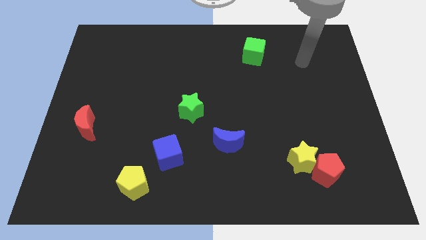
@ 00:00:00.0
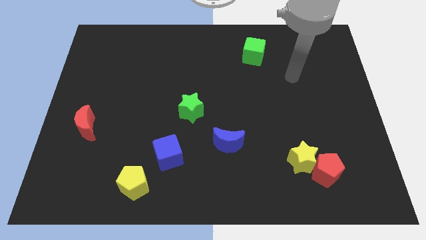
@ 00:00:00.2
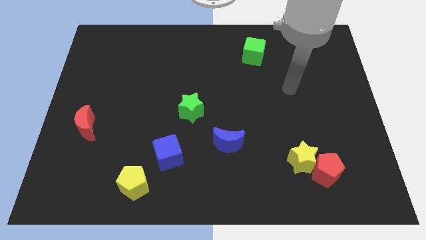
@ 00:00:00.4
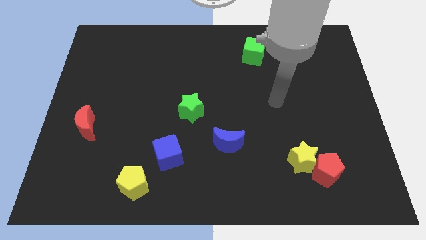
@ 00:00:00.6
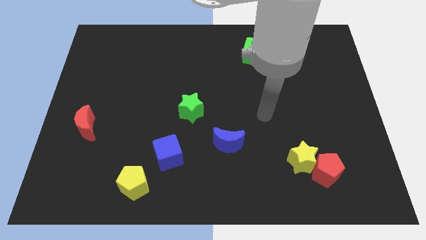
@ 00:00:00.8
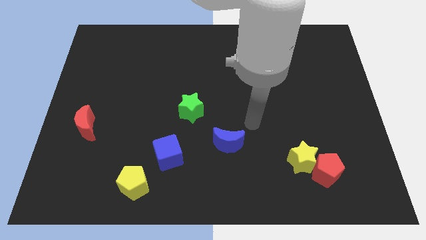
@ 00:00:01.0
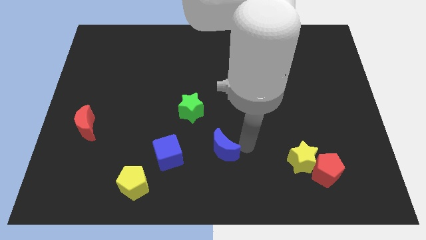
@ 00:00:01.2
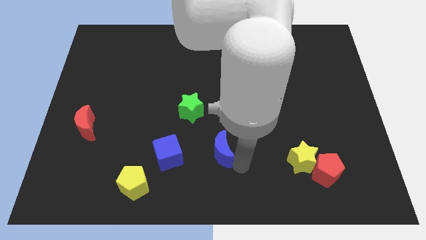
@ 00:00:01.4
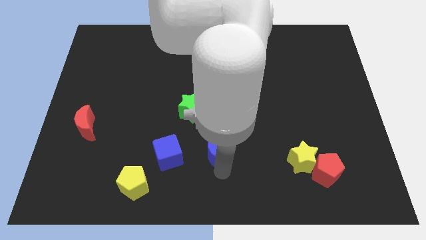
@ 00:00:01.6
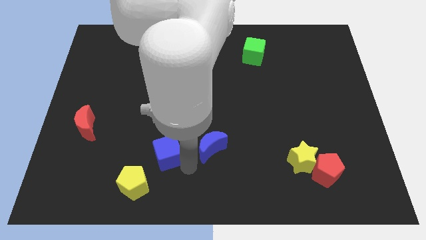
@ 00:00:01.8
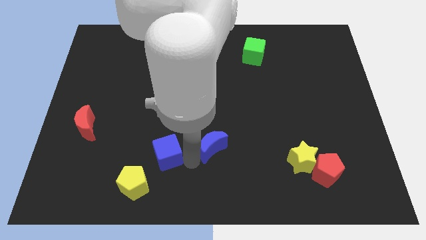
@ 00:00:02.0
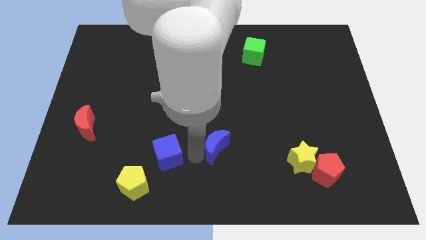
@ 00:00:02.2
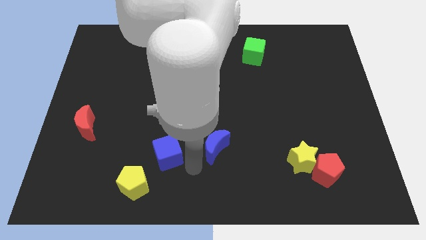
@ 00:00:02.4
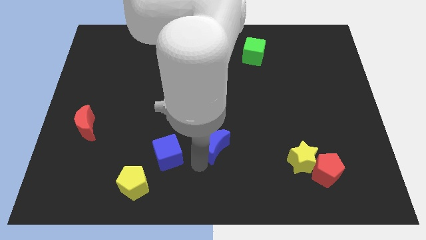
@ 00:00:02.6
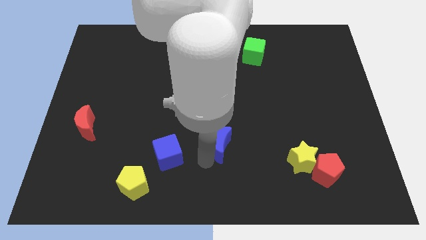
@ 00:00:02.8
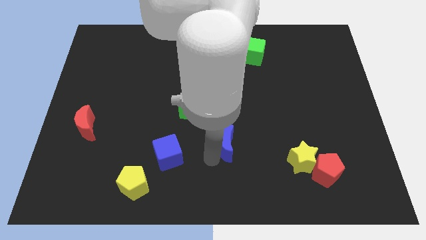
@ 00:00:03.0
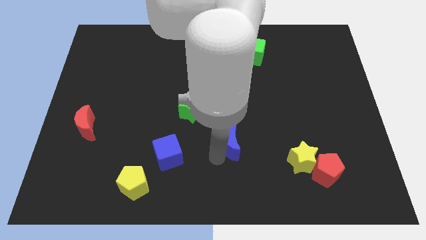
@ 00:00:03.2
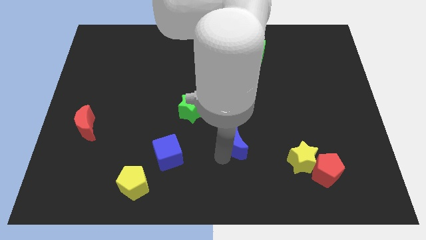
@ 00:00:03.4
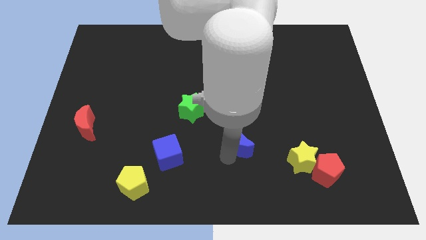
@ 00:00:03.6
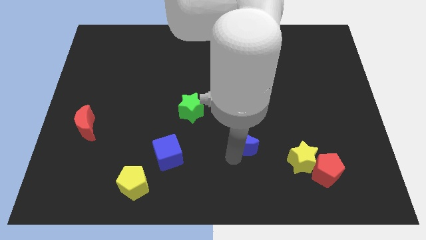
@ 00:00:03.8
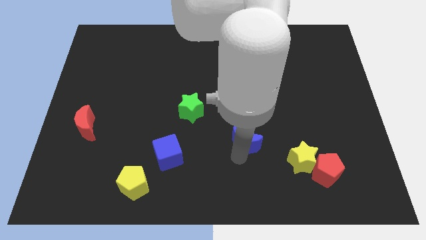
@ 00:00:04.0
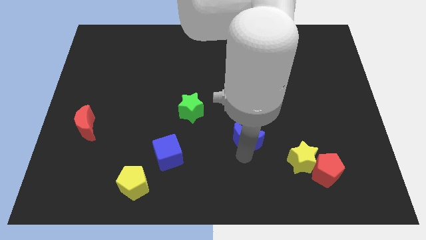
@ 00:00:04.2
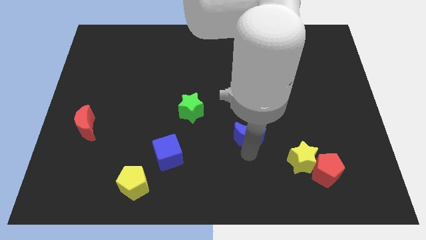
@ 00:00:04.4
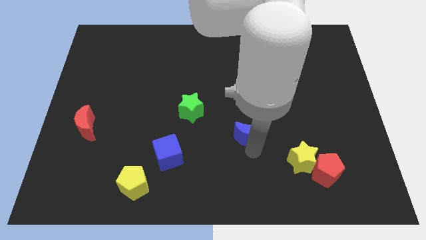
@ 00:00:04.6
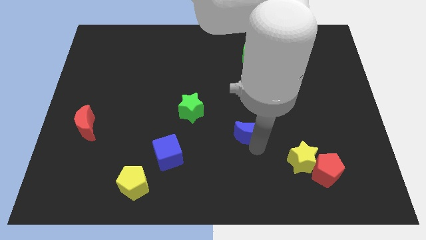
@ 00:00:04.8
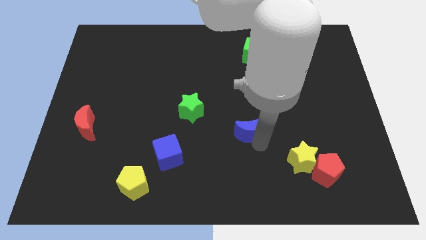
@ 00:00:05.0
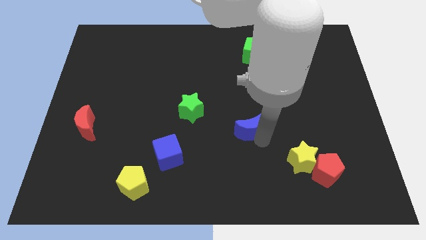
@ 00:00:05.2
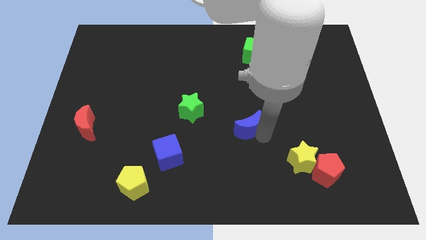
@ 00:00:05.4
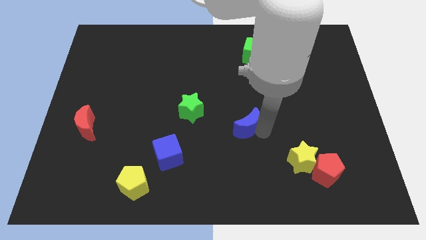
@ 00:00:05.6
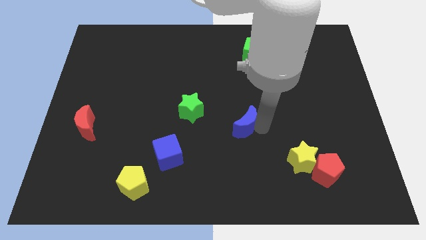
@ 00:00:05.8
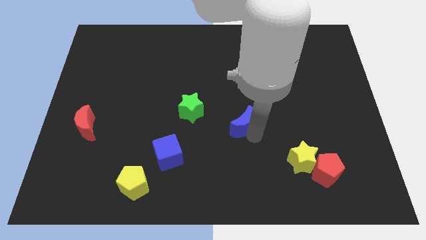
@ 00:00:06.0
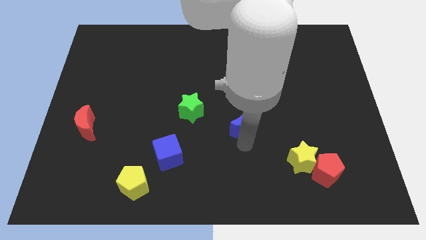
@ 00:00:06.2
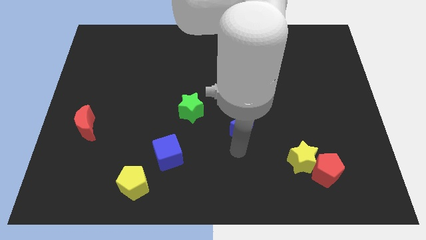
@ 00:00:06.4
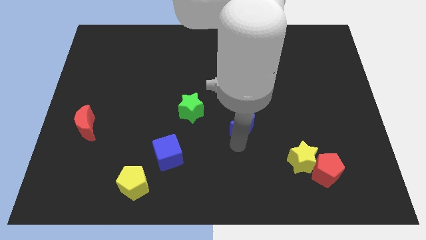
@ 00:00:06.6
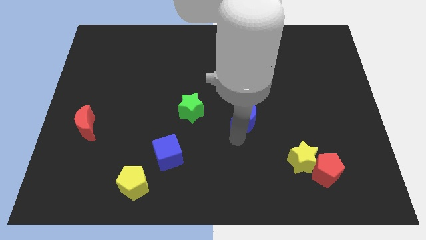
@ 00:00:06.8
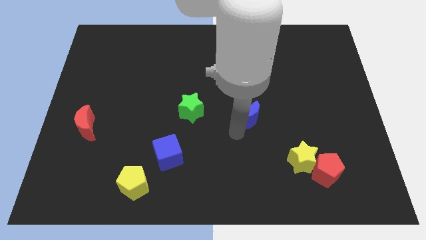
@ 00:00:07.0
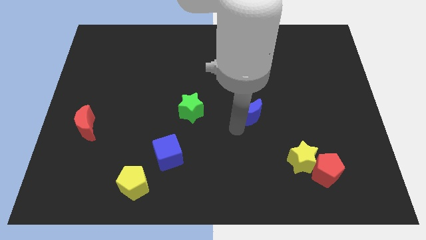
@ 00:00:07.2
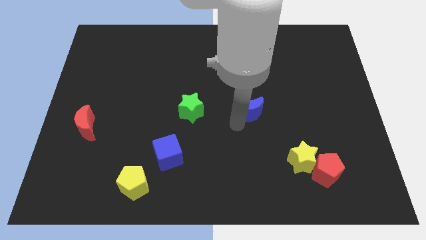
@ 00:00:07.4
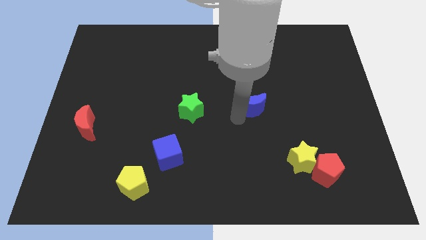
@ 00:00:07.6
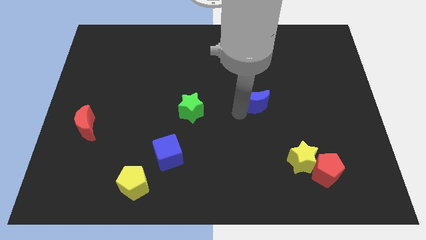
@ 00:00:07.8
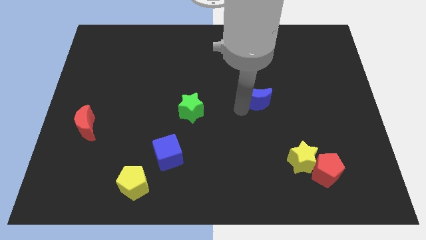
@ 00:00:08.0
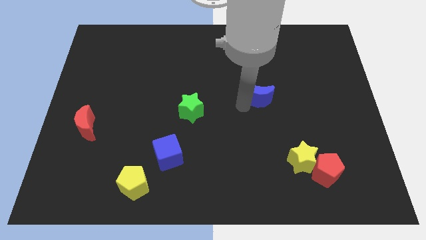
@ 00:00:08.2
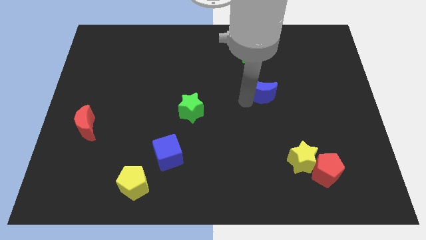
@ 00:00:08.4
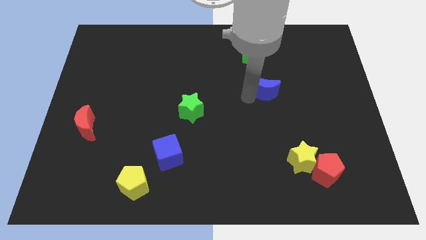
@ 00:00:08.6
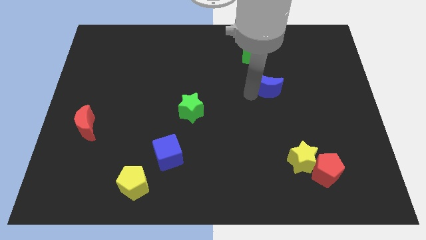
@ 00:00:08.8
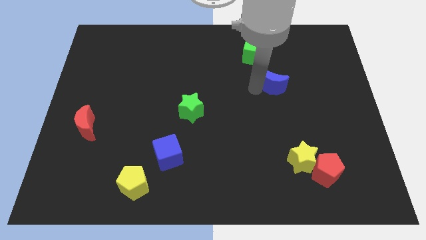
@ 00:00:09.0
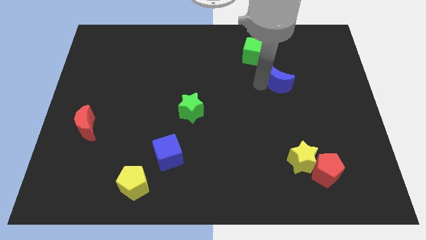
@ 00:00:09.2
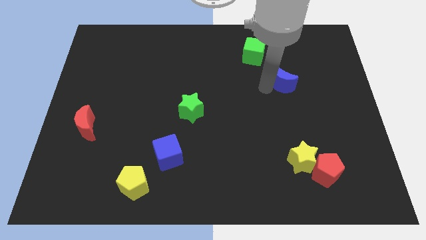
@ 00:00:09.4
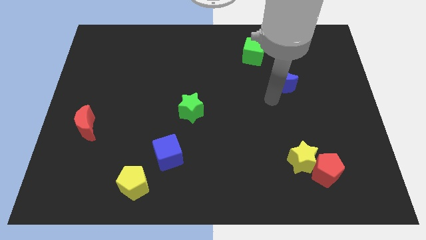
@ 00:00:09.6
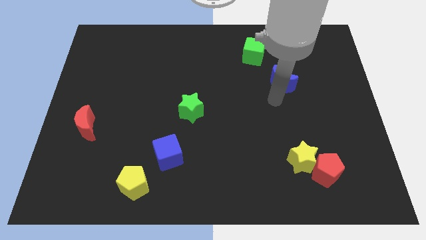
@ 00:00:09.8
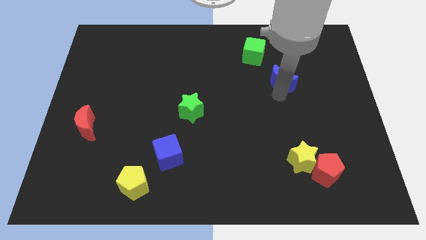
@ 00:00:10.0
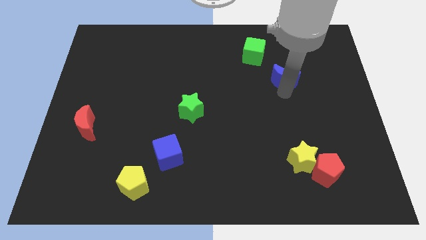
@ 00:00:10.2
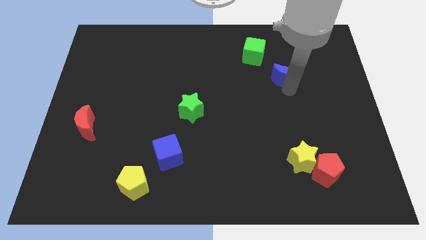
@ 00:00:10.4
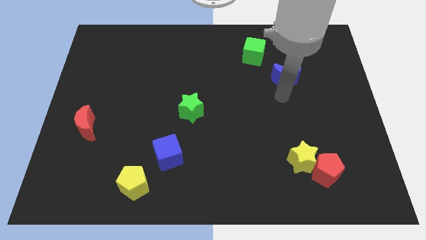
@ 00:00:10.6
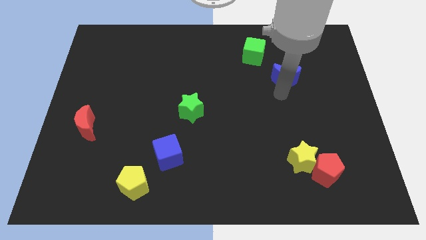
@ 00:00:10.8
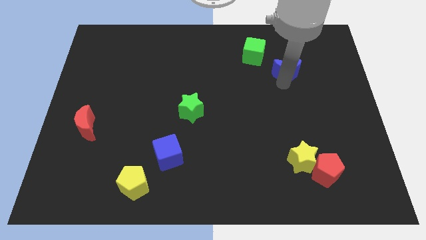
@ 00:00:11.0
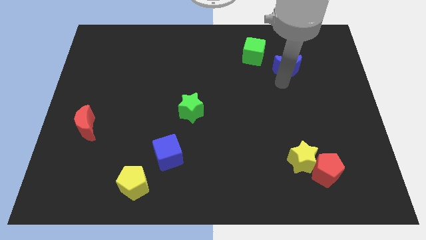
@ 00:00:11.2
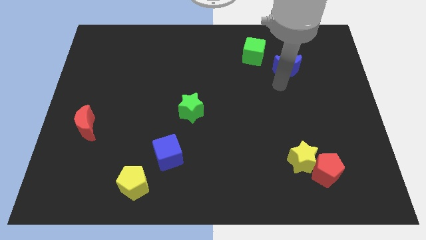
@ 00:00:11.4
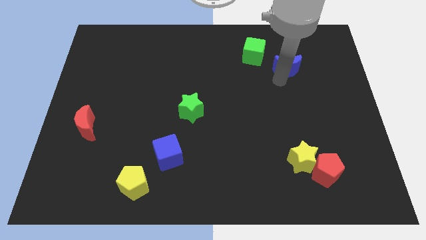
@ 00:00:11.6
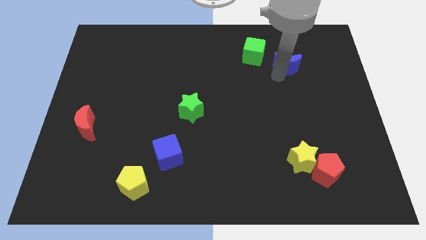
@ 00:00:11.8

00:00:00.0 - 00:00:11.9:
push the blue moon just right of the green cube

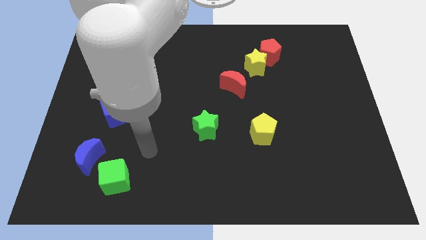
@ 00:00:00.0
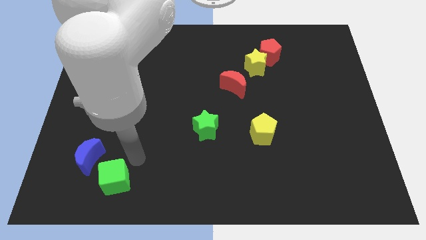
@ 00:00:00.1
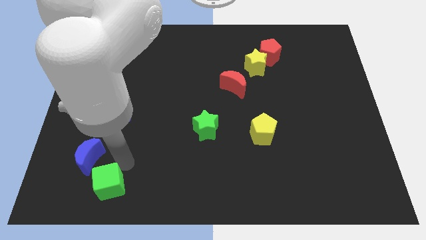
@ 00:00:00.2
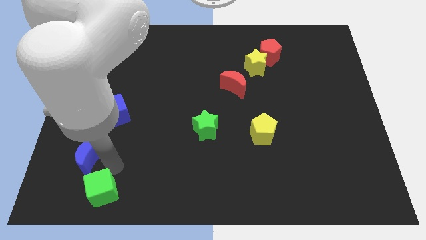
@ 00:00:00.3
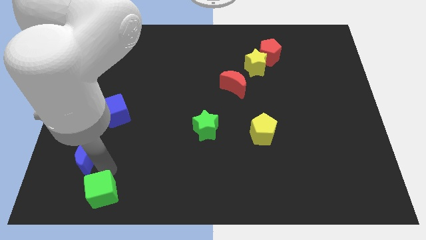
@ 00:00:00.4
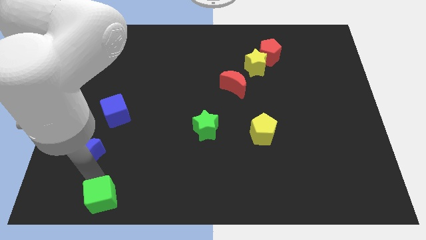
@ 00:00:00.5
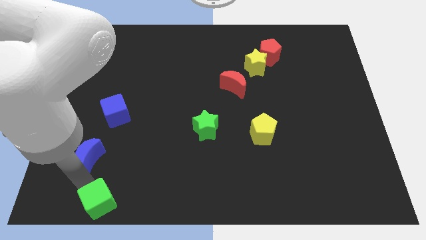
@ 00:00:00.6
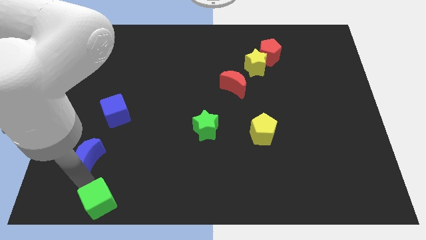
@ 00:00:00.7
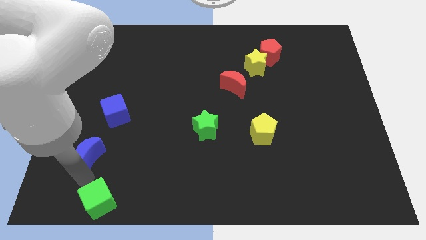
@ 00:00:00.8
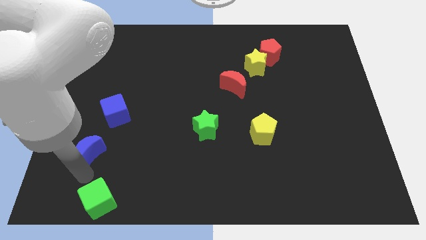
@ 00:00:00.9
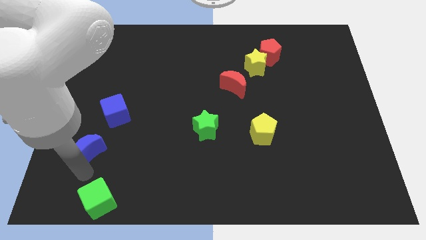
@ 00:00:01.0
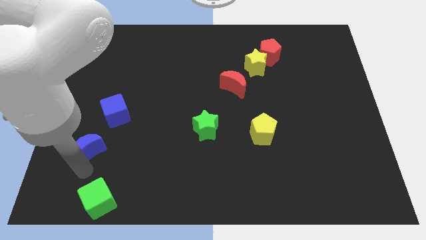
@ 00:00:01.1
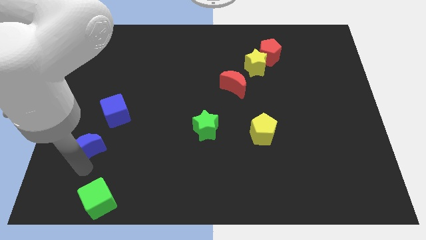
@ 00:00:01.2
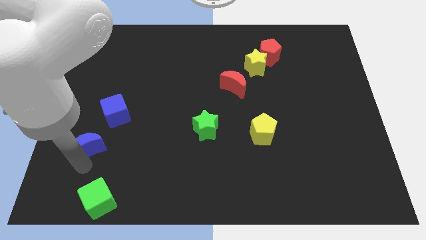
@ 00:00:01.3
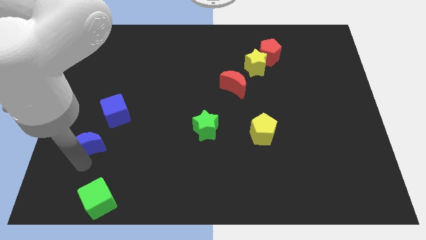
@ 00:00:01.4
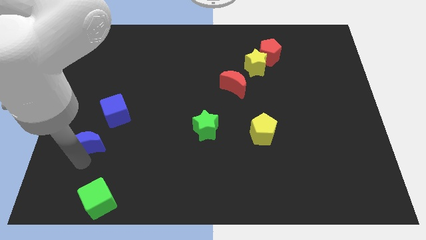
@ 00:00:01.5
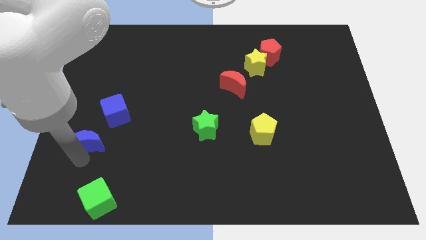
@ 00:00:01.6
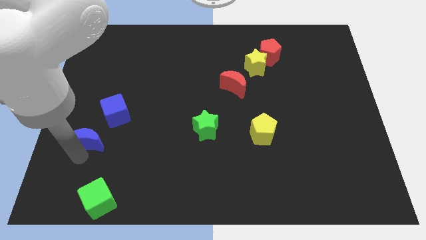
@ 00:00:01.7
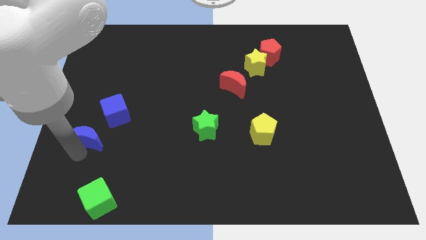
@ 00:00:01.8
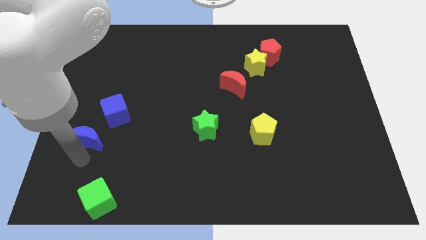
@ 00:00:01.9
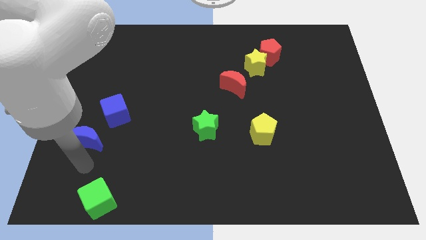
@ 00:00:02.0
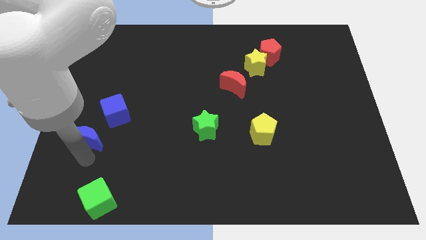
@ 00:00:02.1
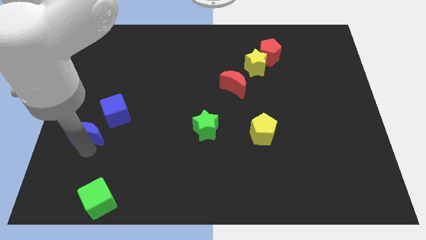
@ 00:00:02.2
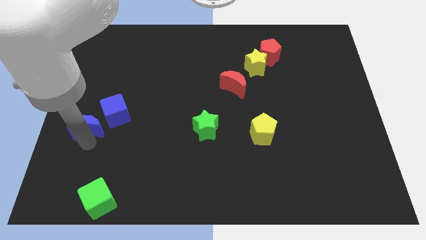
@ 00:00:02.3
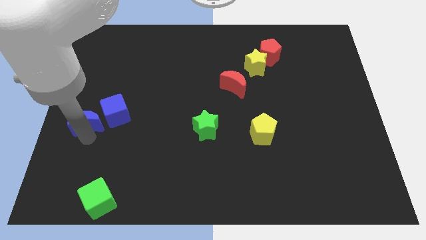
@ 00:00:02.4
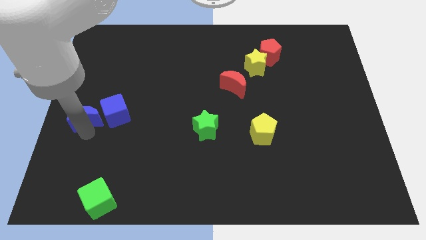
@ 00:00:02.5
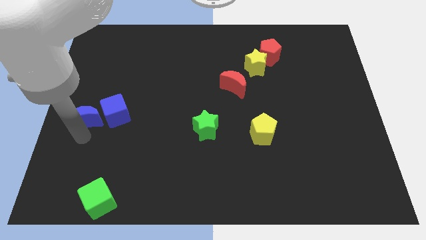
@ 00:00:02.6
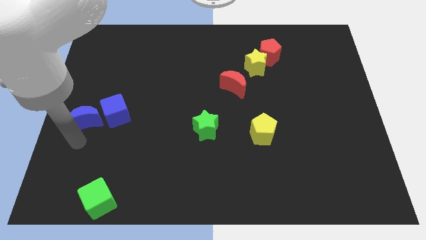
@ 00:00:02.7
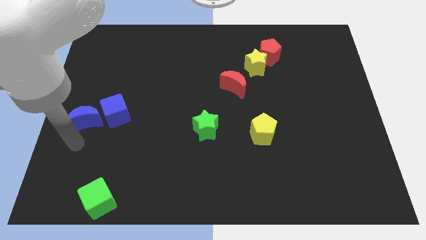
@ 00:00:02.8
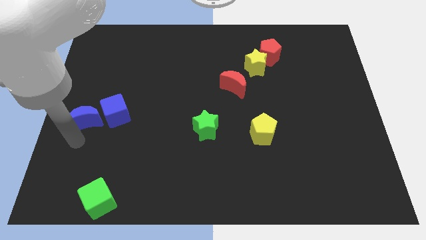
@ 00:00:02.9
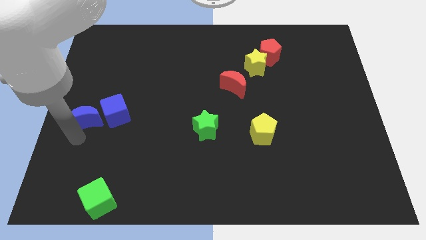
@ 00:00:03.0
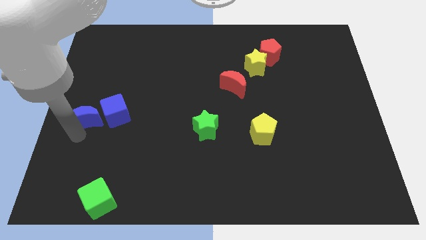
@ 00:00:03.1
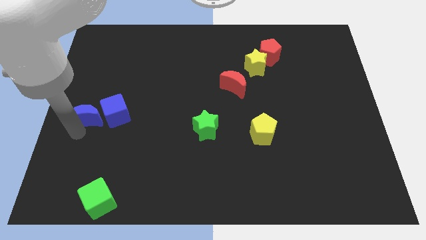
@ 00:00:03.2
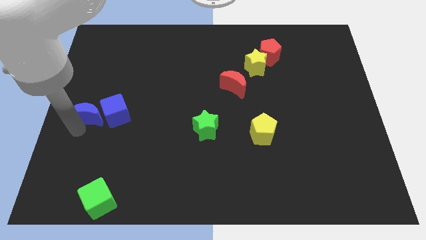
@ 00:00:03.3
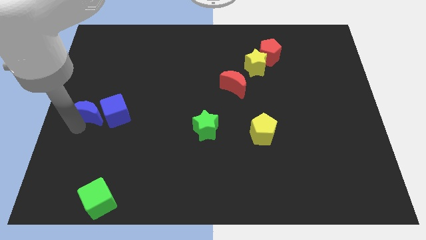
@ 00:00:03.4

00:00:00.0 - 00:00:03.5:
move the blue moon to the top left side of the blue cube
